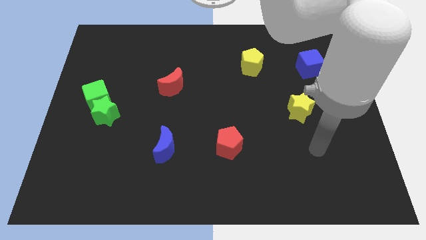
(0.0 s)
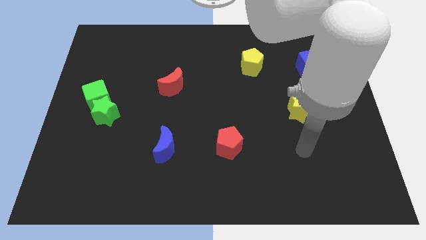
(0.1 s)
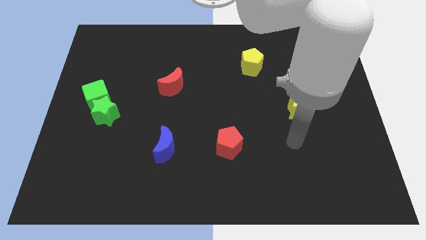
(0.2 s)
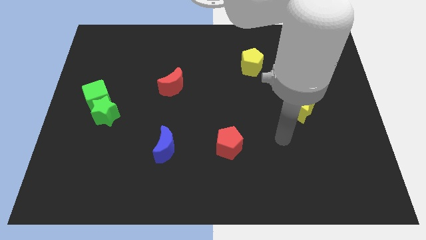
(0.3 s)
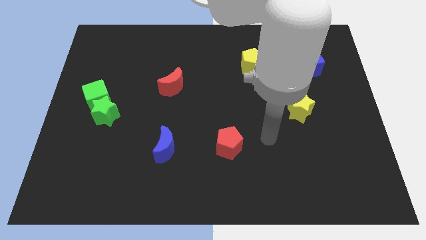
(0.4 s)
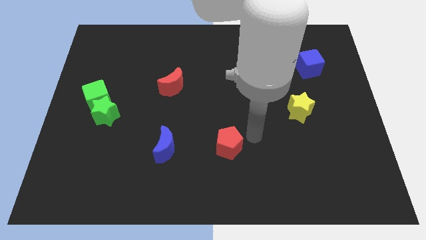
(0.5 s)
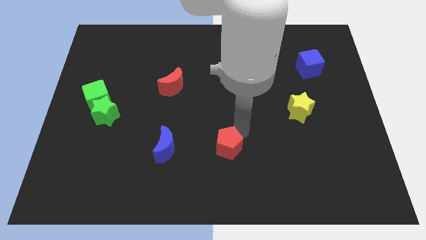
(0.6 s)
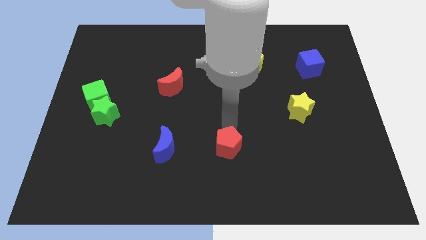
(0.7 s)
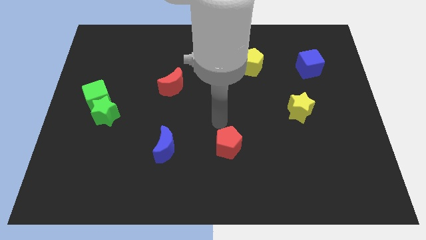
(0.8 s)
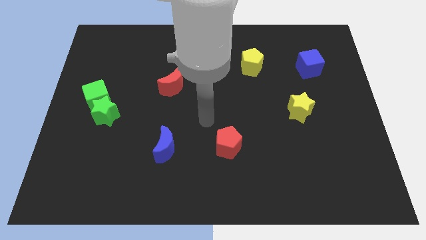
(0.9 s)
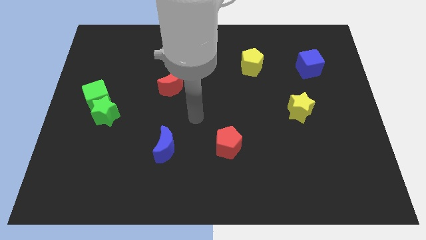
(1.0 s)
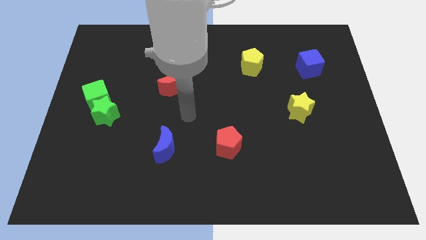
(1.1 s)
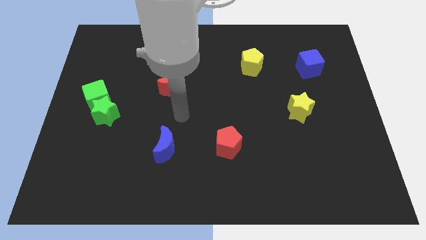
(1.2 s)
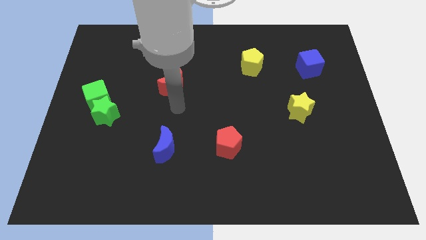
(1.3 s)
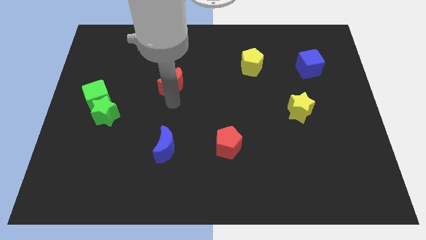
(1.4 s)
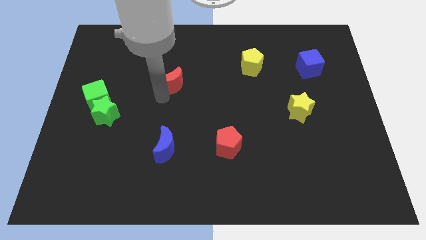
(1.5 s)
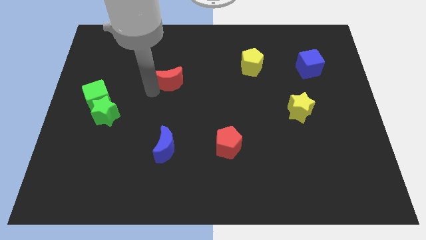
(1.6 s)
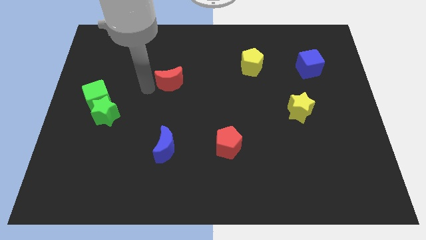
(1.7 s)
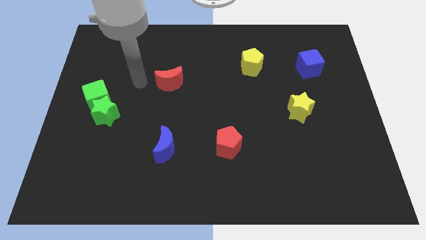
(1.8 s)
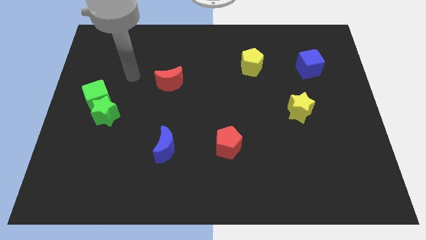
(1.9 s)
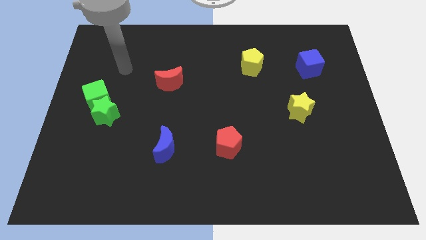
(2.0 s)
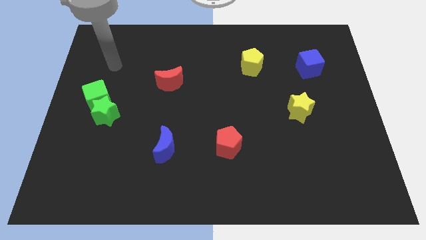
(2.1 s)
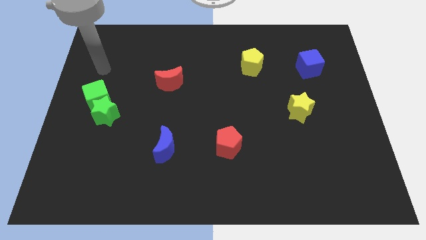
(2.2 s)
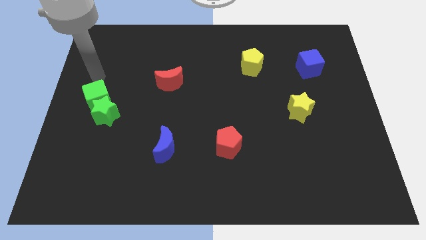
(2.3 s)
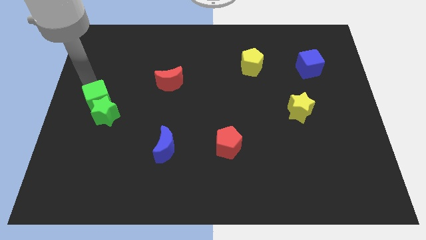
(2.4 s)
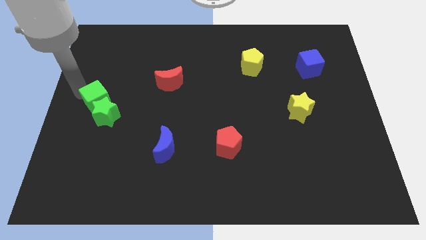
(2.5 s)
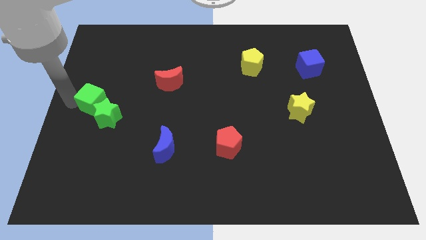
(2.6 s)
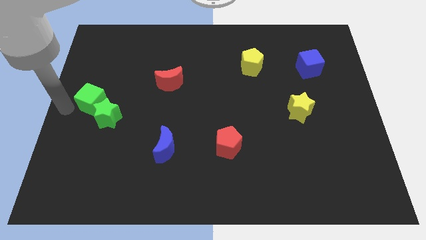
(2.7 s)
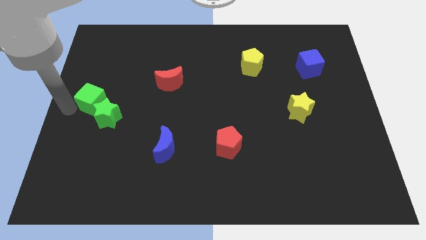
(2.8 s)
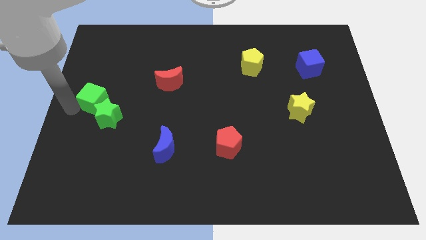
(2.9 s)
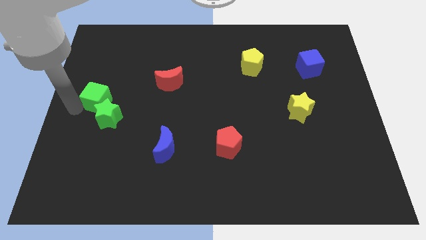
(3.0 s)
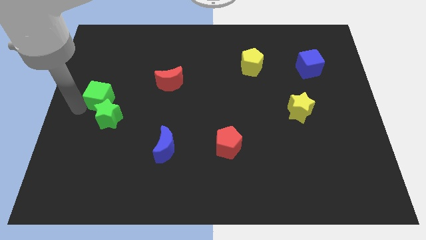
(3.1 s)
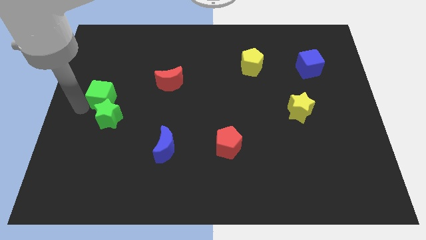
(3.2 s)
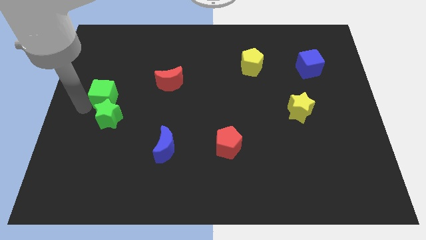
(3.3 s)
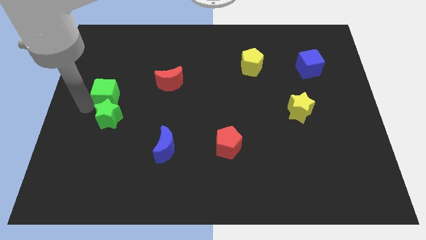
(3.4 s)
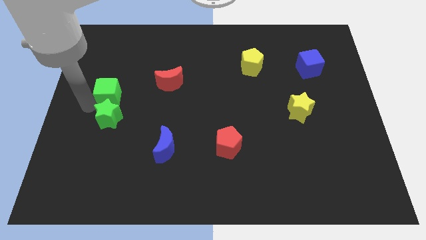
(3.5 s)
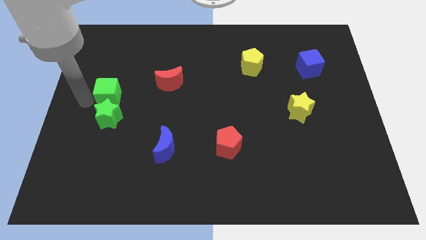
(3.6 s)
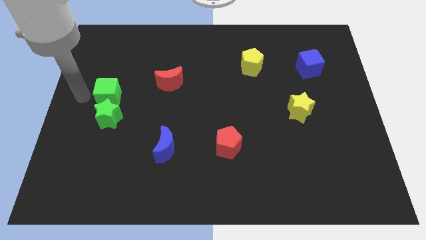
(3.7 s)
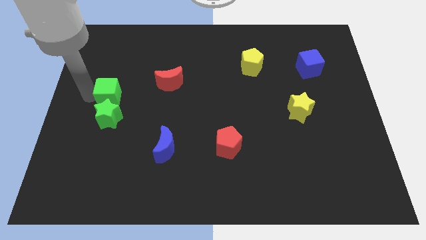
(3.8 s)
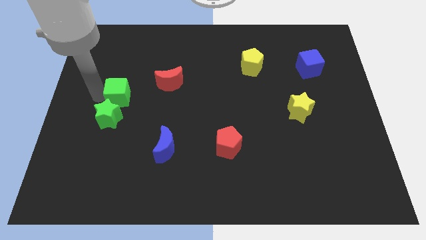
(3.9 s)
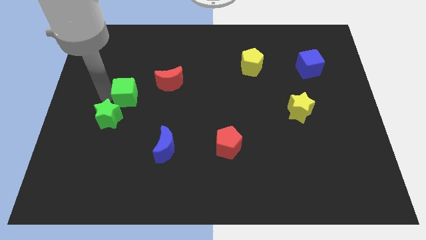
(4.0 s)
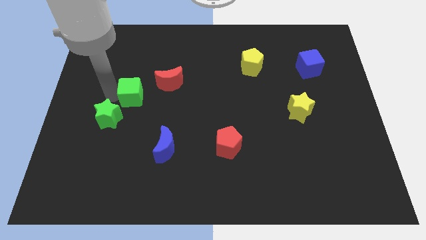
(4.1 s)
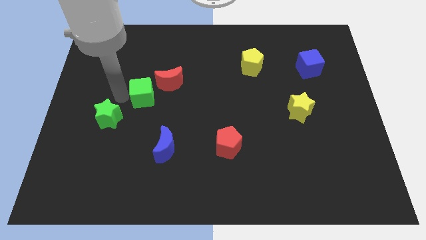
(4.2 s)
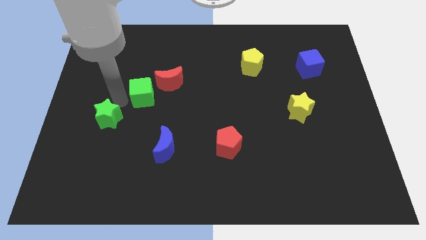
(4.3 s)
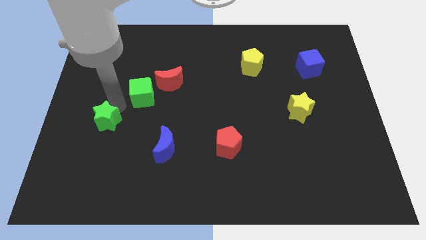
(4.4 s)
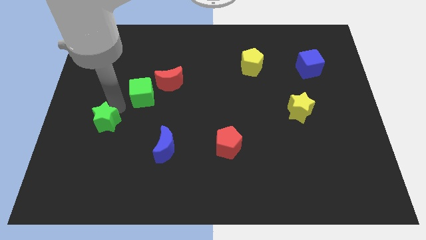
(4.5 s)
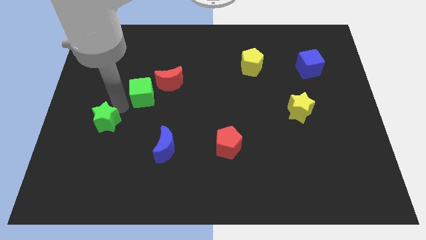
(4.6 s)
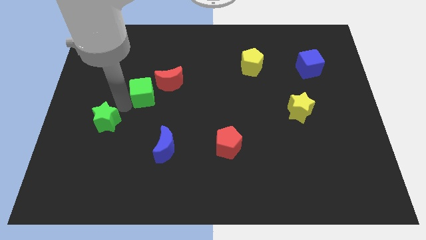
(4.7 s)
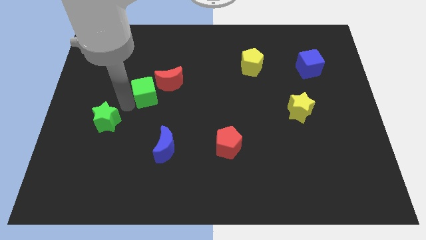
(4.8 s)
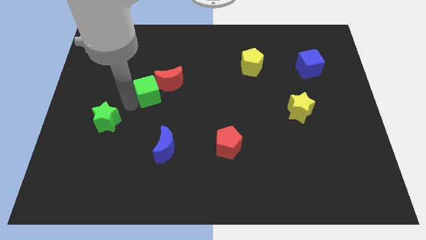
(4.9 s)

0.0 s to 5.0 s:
put the green cube towards the red moon

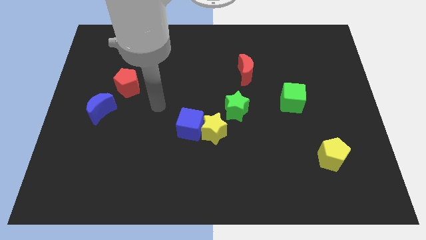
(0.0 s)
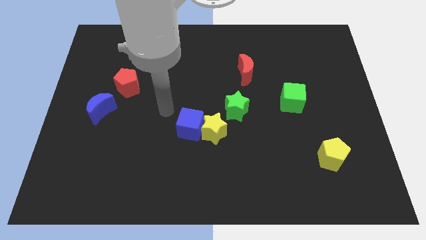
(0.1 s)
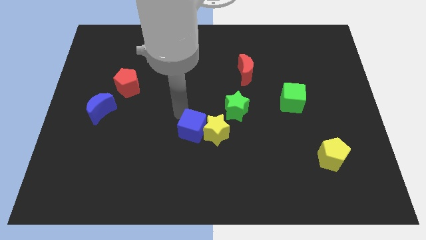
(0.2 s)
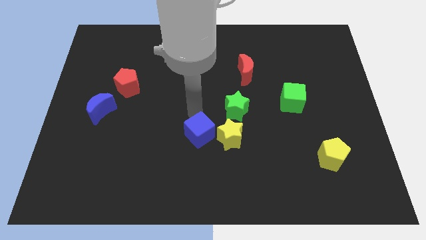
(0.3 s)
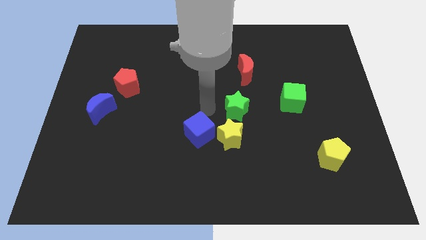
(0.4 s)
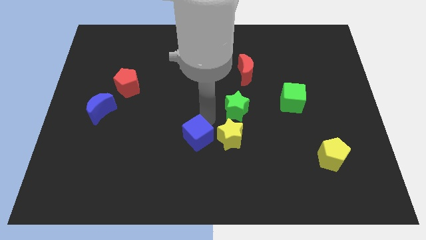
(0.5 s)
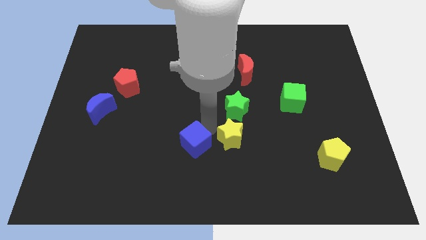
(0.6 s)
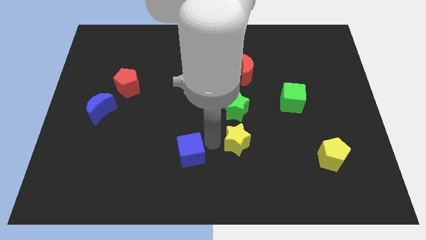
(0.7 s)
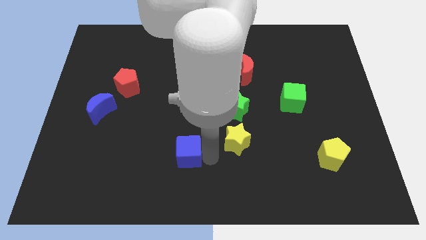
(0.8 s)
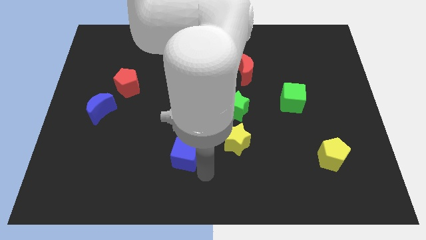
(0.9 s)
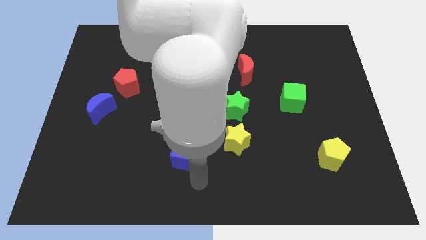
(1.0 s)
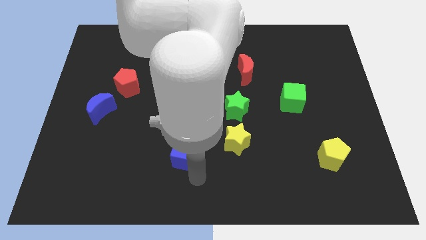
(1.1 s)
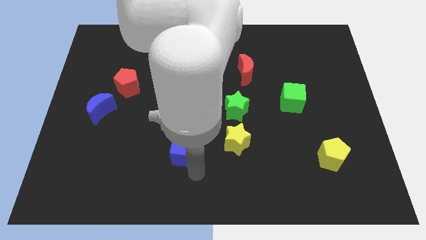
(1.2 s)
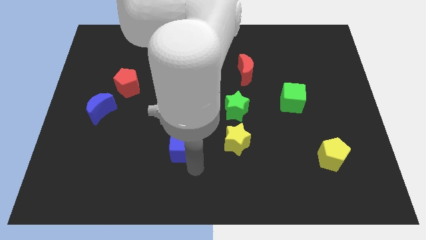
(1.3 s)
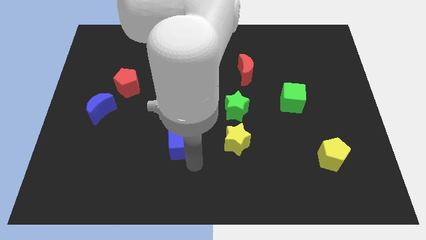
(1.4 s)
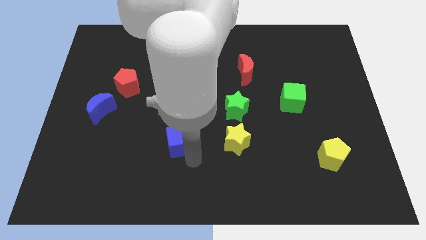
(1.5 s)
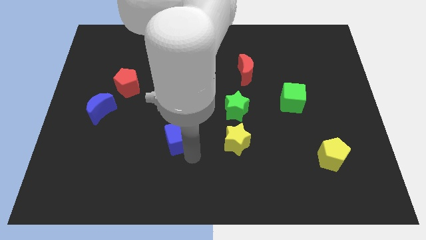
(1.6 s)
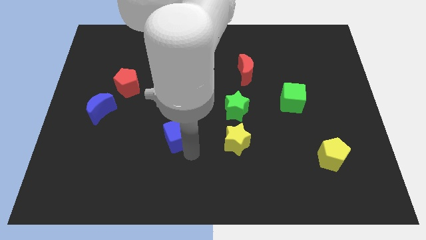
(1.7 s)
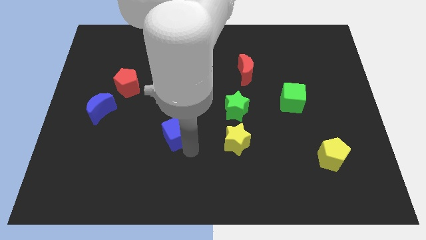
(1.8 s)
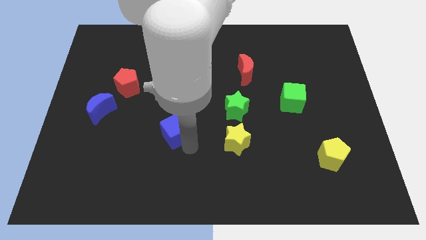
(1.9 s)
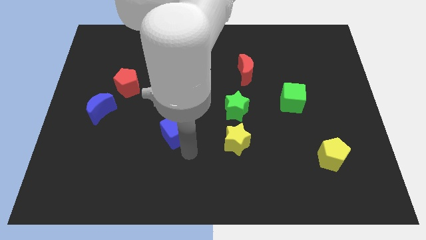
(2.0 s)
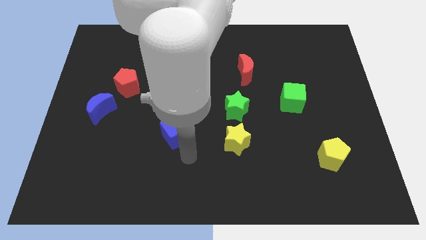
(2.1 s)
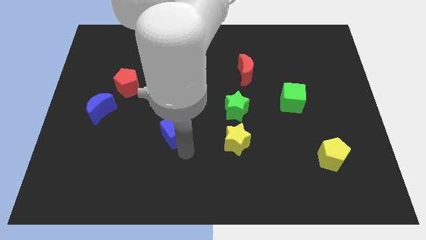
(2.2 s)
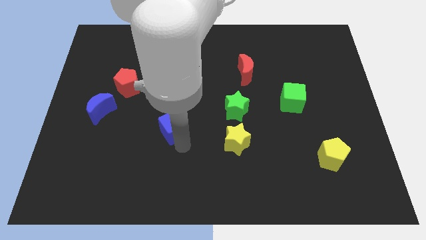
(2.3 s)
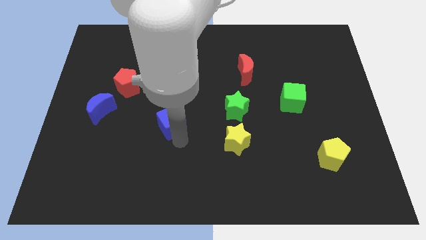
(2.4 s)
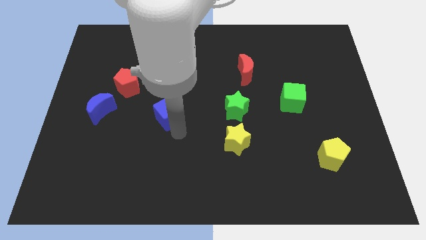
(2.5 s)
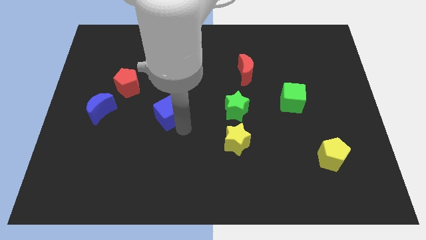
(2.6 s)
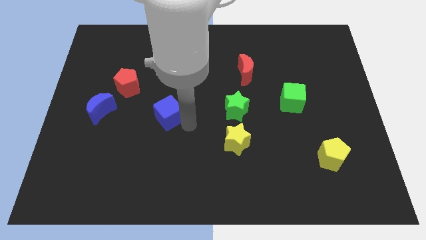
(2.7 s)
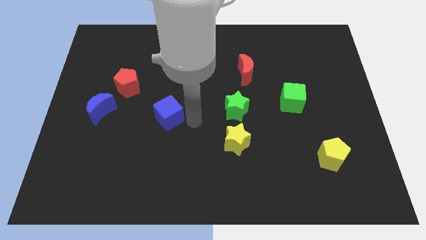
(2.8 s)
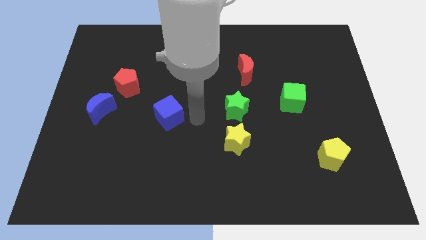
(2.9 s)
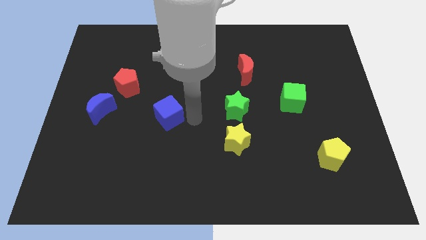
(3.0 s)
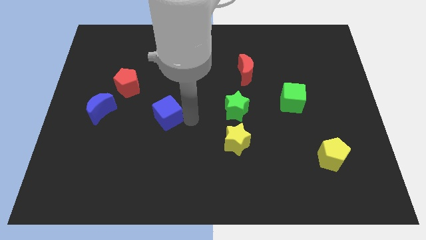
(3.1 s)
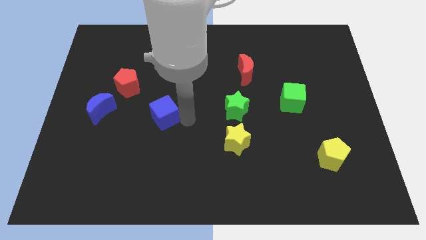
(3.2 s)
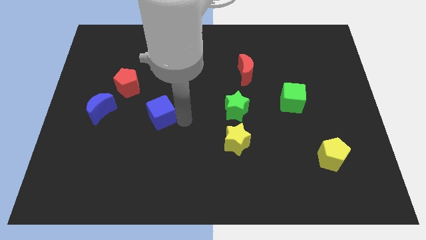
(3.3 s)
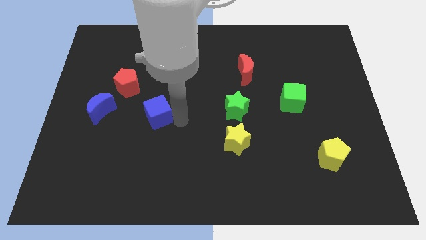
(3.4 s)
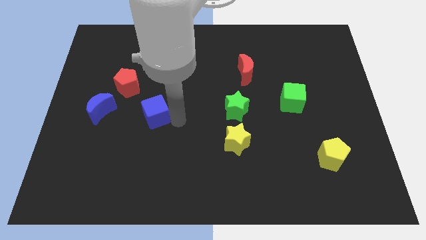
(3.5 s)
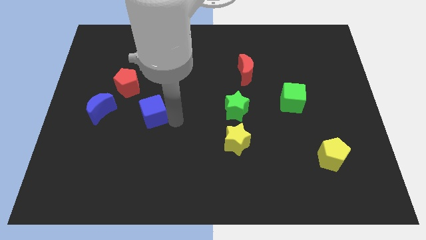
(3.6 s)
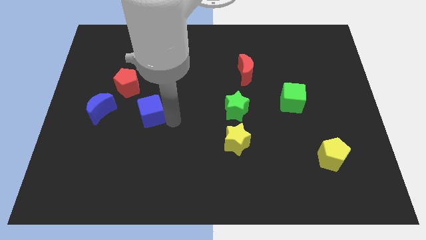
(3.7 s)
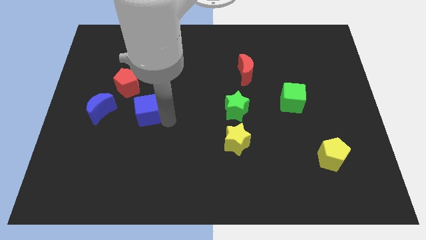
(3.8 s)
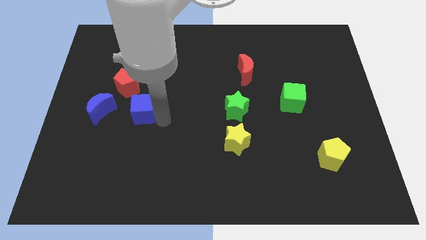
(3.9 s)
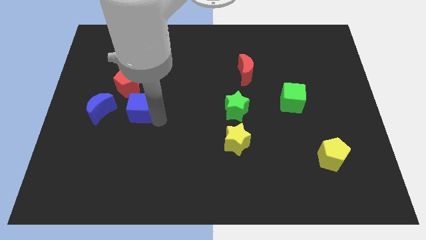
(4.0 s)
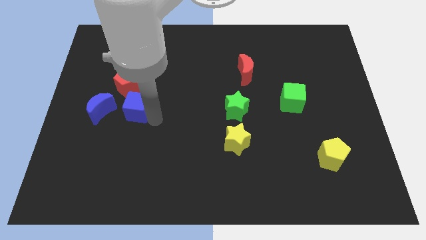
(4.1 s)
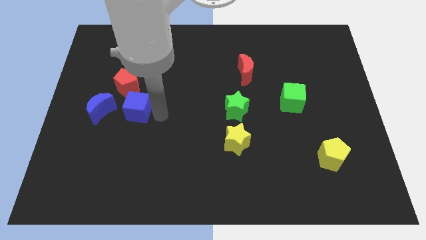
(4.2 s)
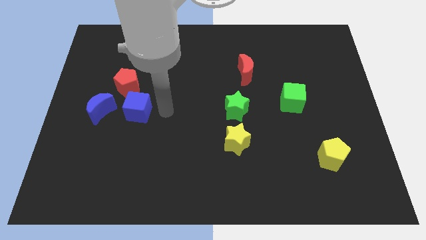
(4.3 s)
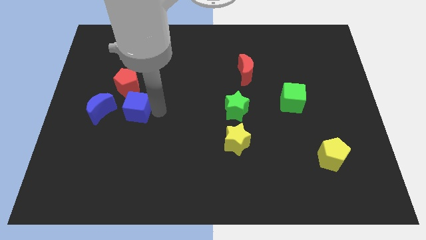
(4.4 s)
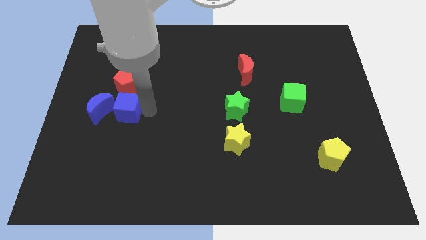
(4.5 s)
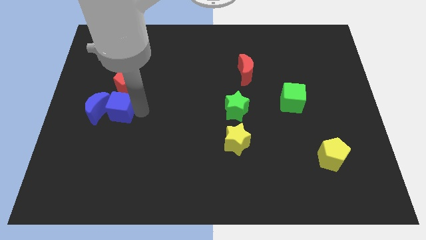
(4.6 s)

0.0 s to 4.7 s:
slide the blue cube close to the blue moon
